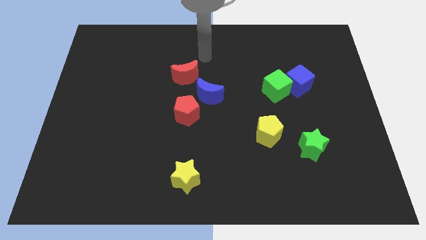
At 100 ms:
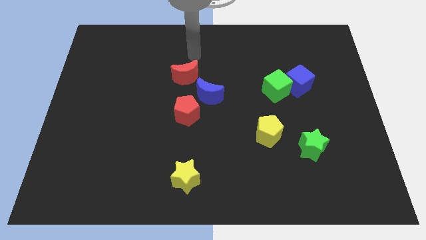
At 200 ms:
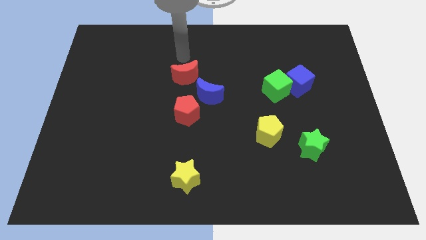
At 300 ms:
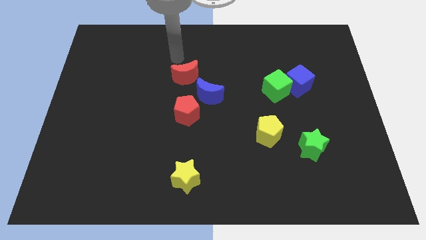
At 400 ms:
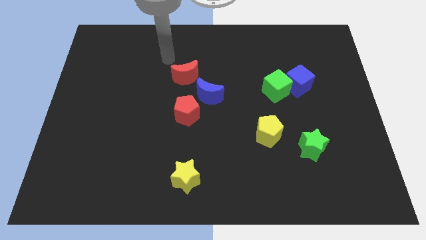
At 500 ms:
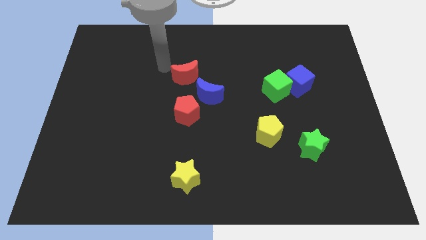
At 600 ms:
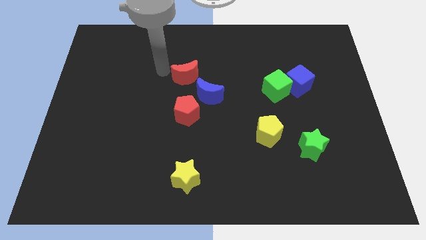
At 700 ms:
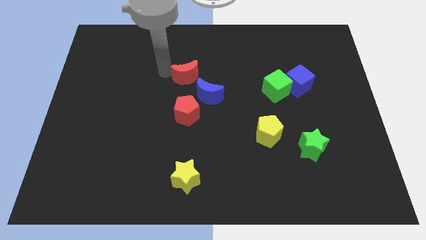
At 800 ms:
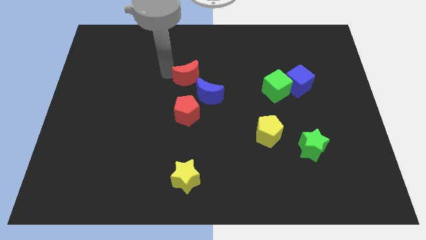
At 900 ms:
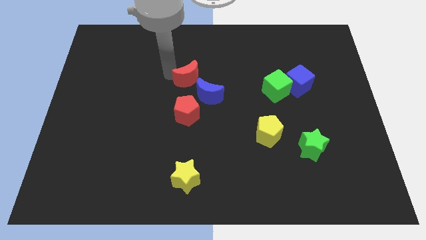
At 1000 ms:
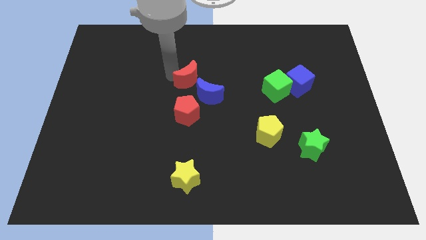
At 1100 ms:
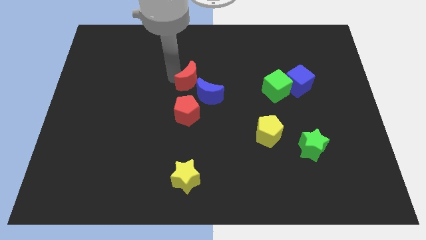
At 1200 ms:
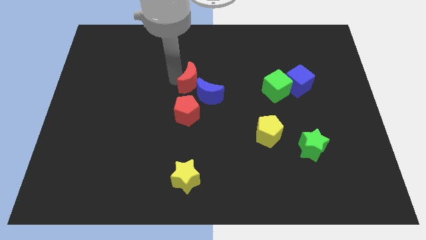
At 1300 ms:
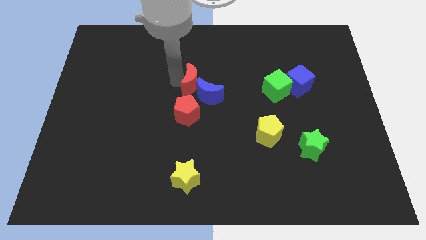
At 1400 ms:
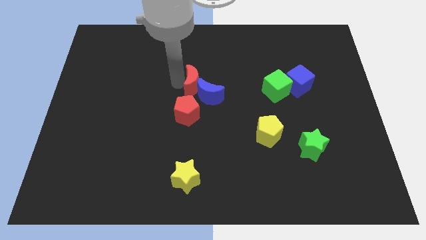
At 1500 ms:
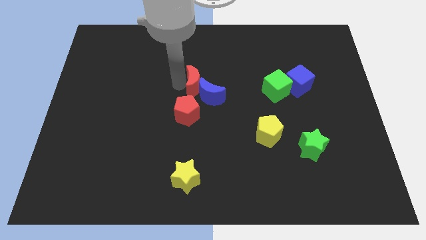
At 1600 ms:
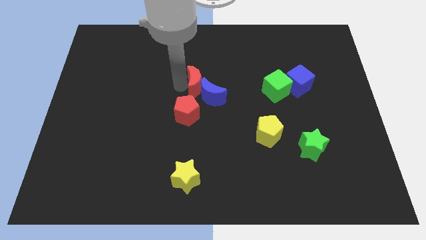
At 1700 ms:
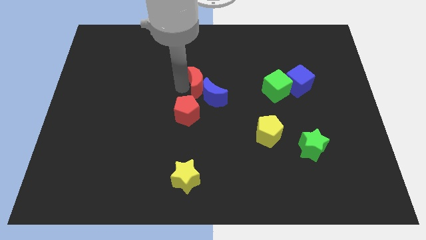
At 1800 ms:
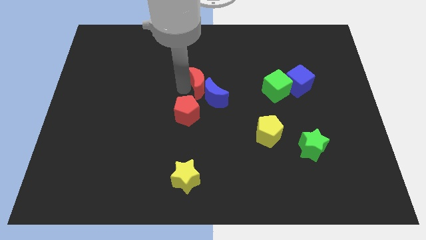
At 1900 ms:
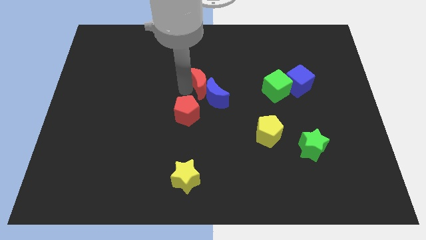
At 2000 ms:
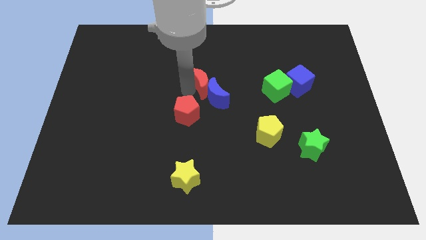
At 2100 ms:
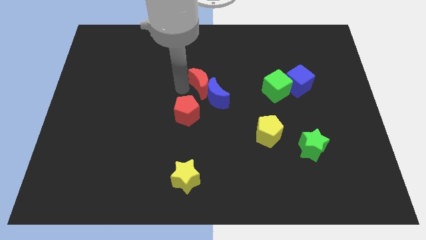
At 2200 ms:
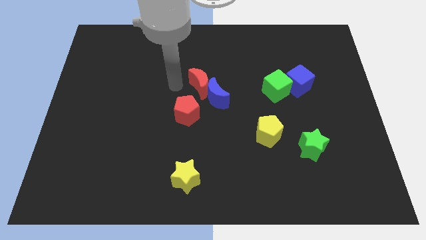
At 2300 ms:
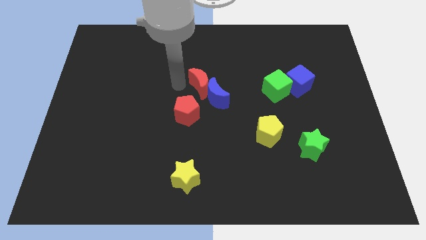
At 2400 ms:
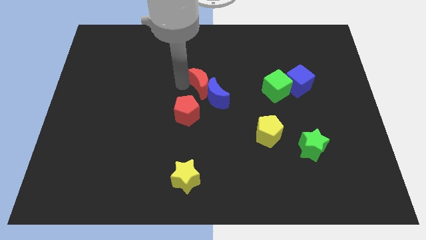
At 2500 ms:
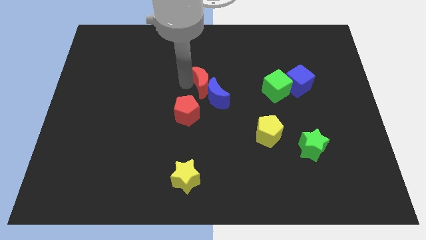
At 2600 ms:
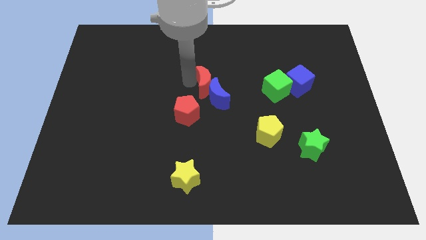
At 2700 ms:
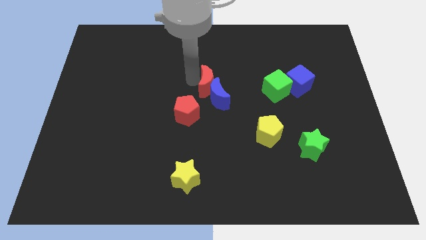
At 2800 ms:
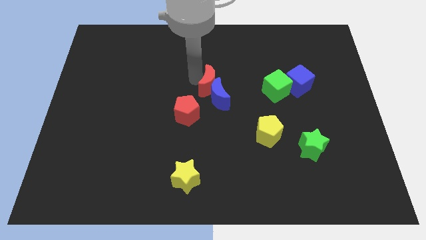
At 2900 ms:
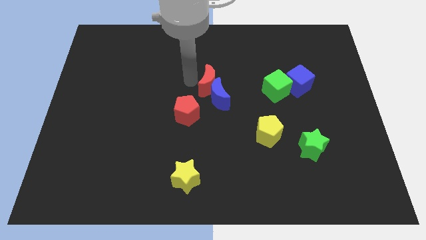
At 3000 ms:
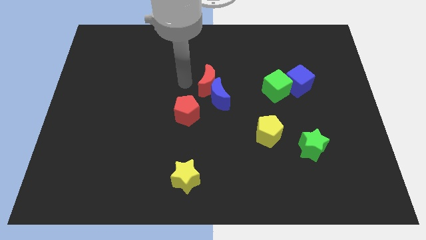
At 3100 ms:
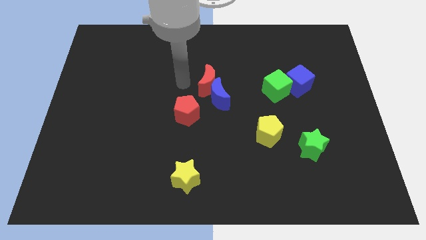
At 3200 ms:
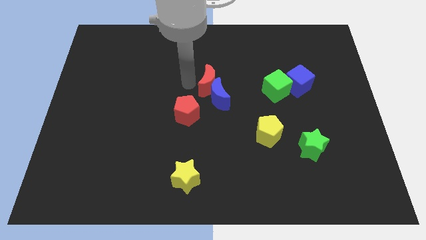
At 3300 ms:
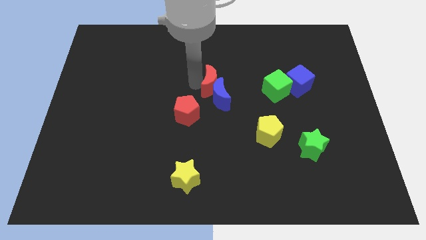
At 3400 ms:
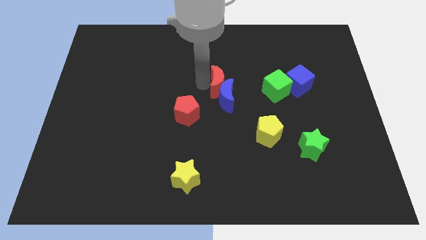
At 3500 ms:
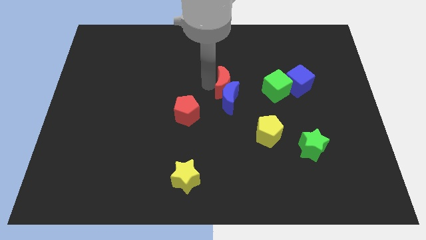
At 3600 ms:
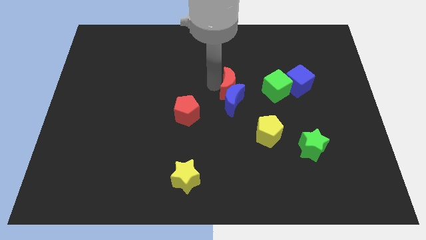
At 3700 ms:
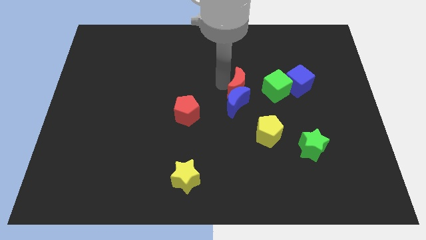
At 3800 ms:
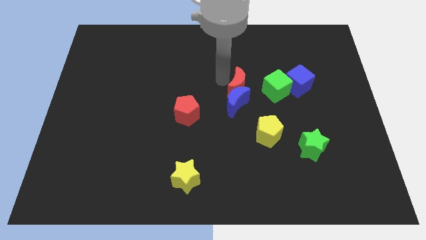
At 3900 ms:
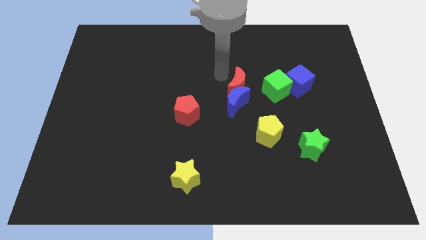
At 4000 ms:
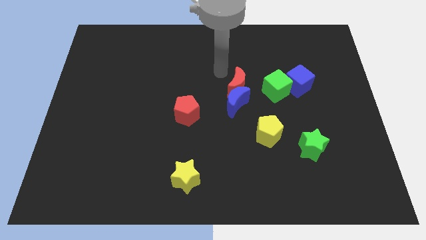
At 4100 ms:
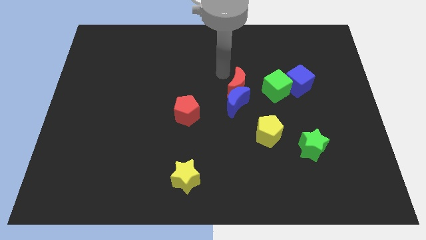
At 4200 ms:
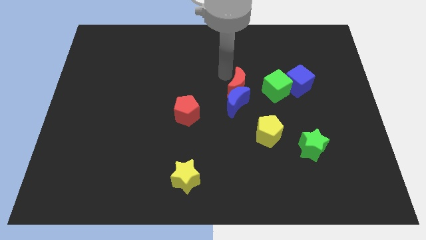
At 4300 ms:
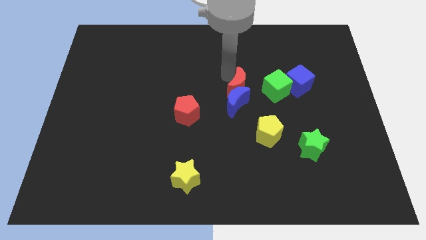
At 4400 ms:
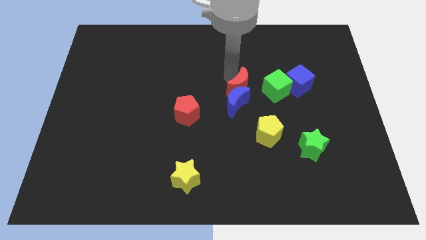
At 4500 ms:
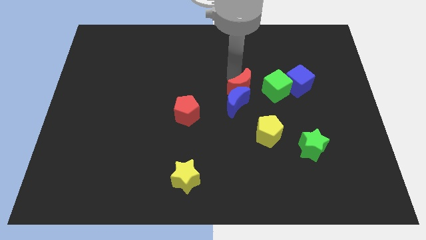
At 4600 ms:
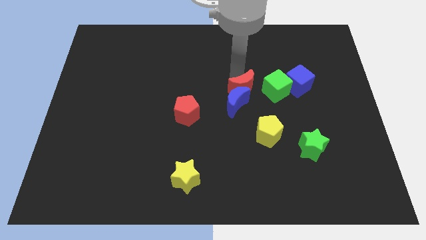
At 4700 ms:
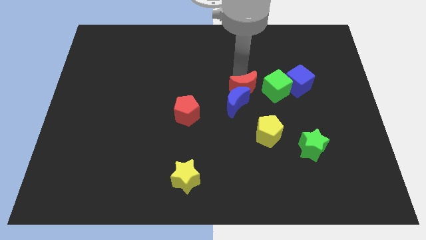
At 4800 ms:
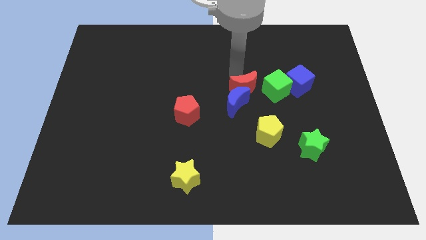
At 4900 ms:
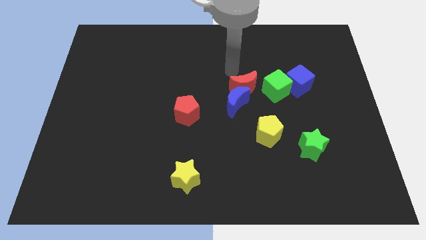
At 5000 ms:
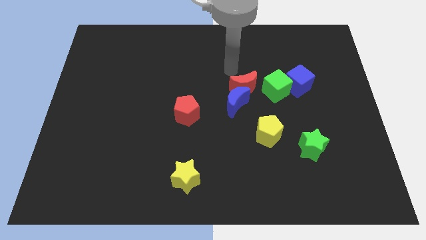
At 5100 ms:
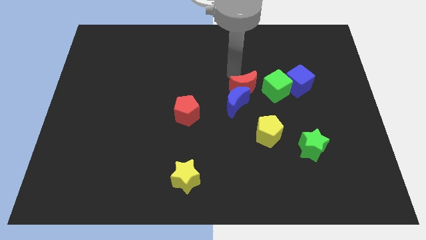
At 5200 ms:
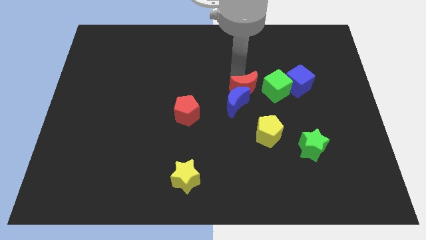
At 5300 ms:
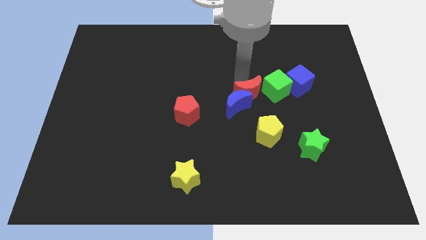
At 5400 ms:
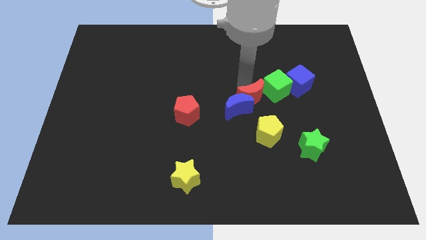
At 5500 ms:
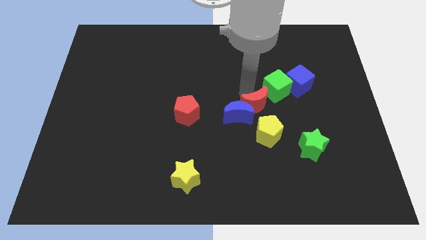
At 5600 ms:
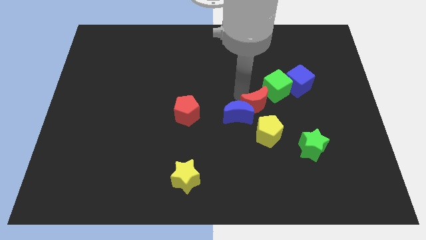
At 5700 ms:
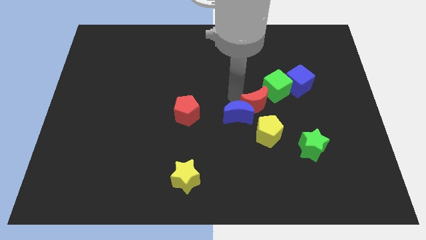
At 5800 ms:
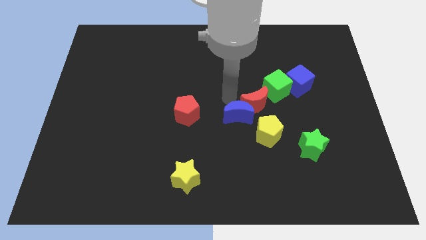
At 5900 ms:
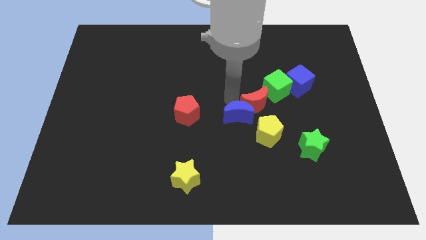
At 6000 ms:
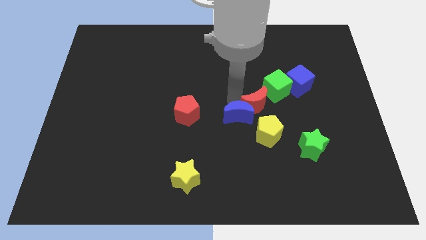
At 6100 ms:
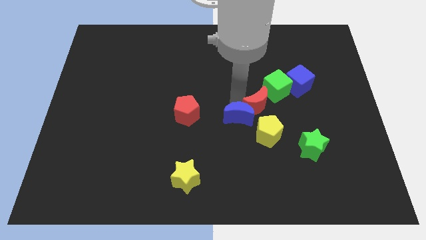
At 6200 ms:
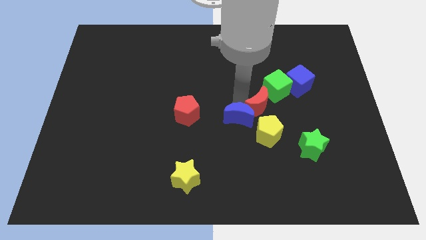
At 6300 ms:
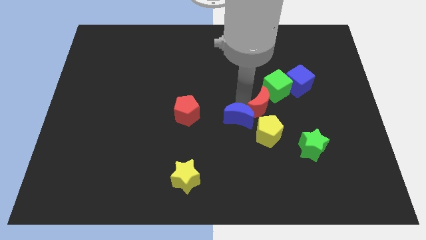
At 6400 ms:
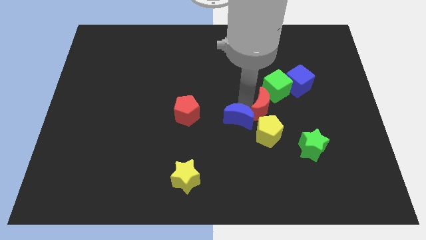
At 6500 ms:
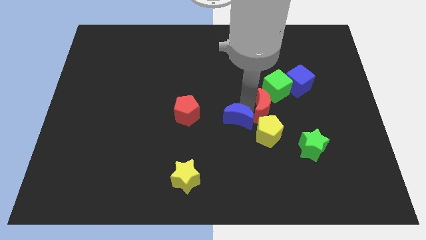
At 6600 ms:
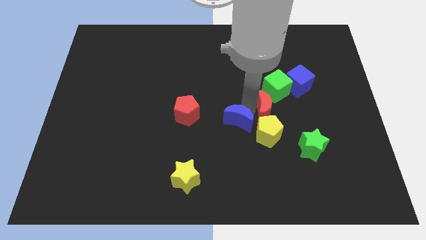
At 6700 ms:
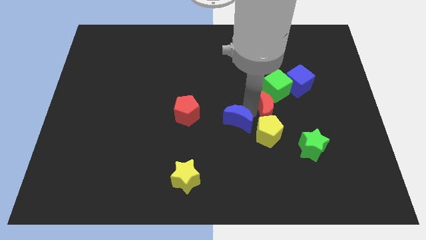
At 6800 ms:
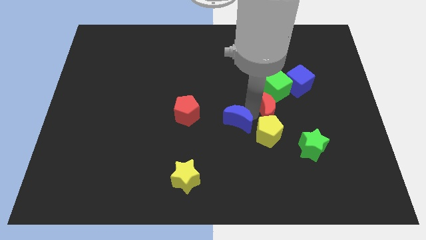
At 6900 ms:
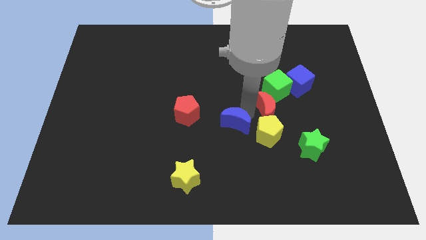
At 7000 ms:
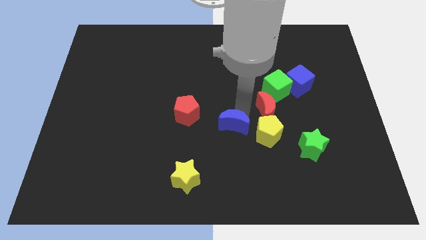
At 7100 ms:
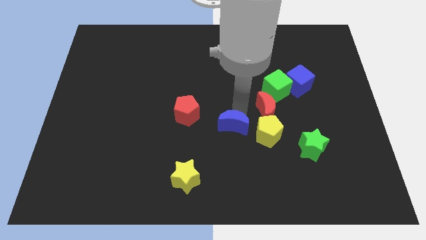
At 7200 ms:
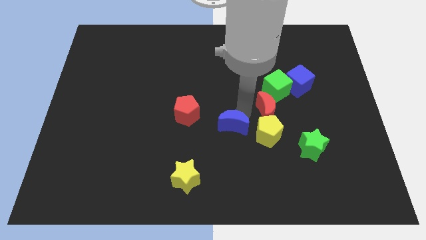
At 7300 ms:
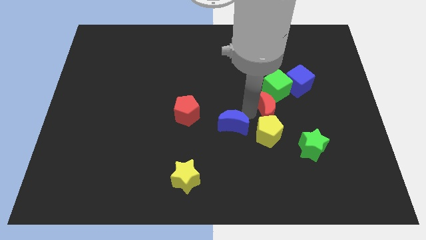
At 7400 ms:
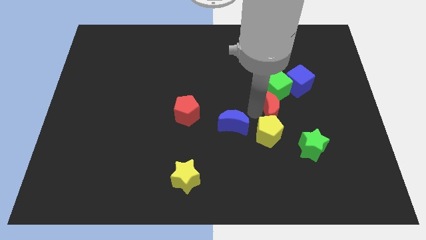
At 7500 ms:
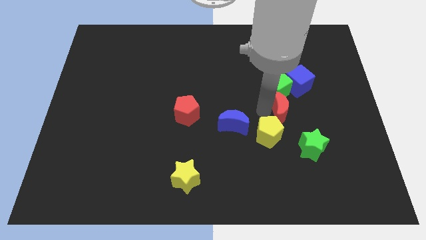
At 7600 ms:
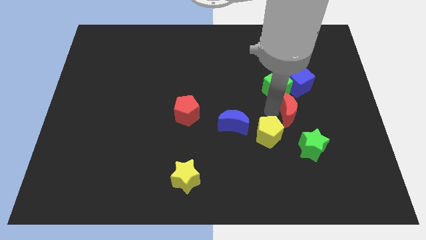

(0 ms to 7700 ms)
put the red moon to the top of the green star

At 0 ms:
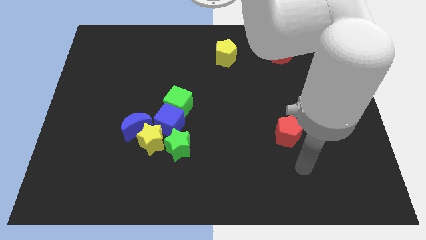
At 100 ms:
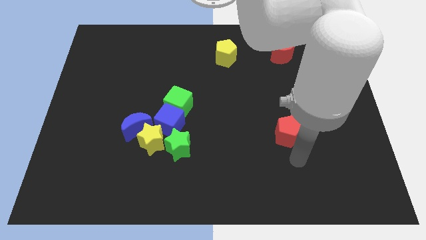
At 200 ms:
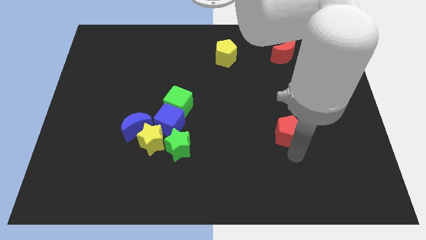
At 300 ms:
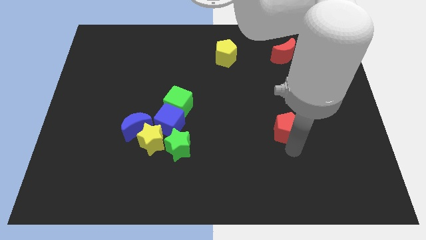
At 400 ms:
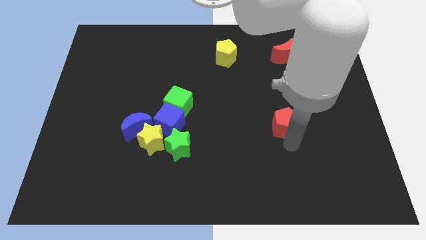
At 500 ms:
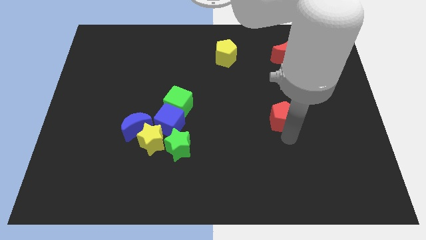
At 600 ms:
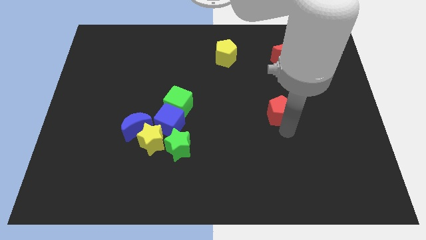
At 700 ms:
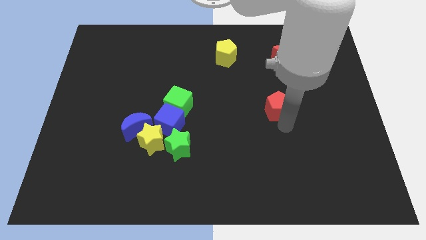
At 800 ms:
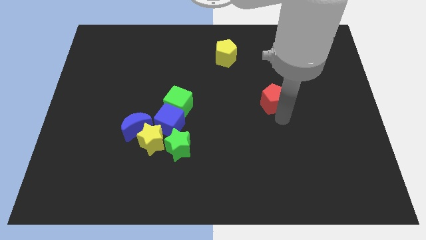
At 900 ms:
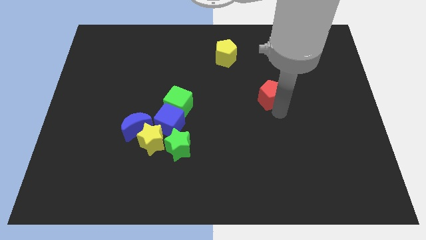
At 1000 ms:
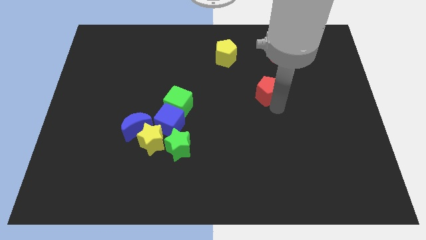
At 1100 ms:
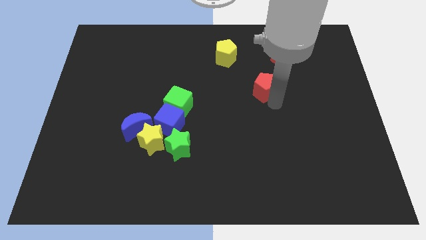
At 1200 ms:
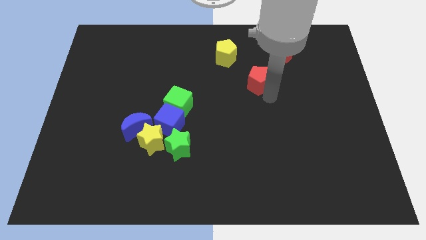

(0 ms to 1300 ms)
move the red pentagon to the bottom right side of the yellow pentagon
